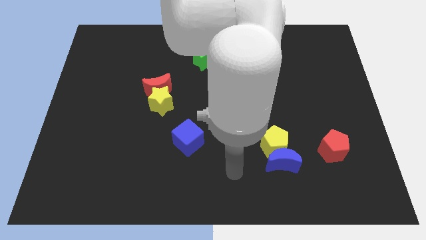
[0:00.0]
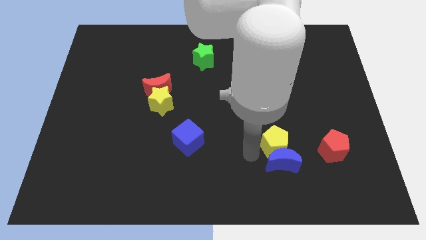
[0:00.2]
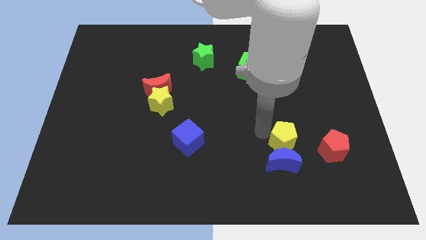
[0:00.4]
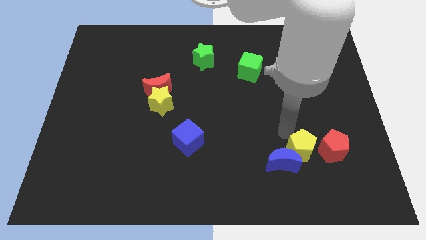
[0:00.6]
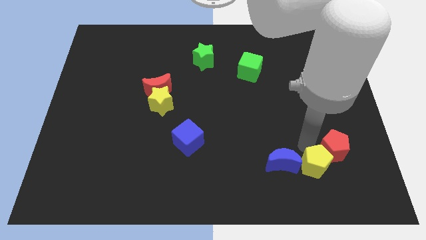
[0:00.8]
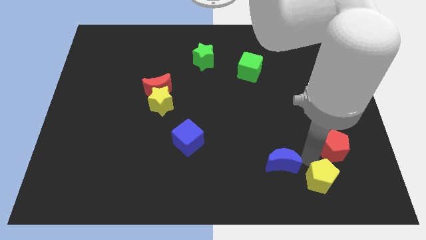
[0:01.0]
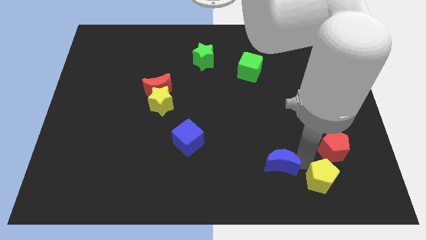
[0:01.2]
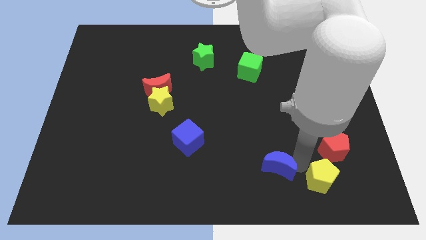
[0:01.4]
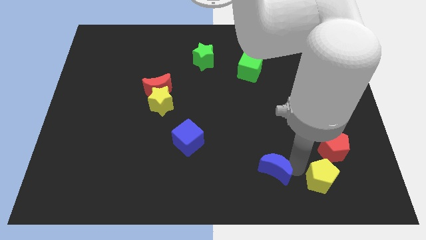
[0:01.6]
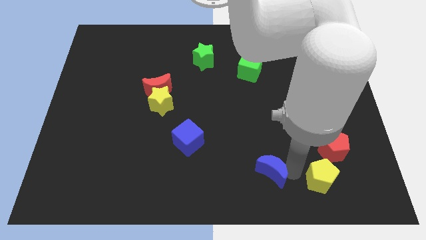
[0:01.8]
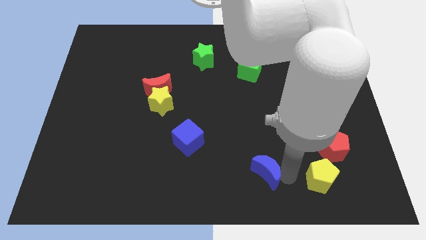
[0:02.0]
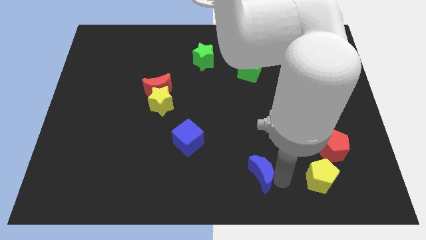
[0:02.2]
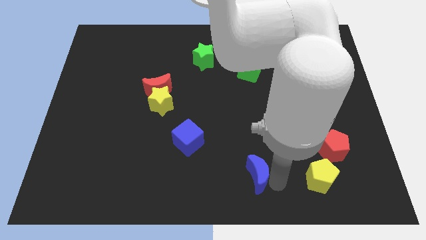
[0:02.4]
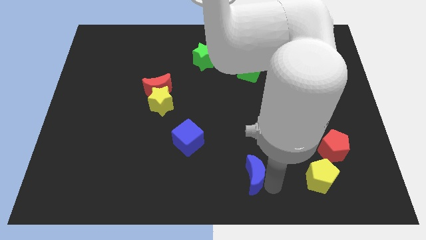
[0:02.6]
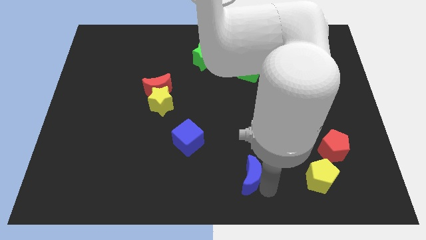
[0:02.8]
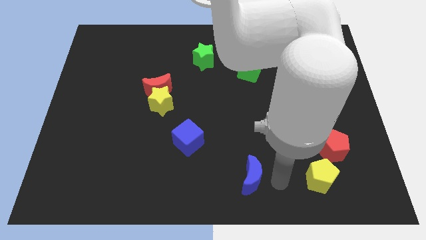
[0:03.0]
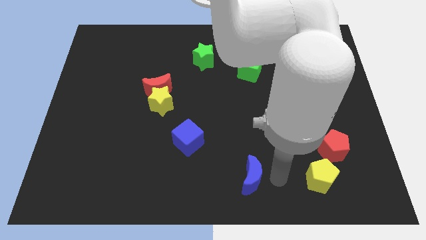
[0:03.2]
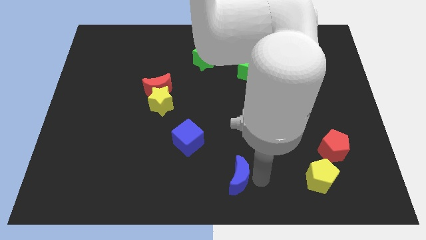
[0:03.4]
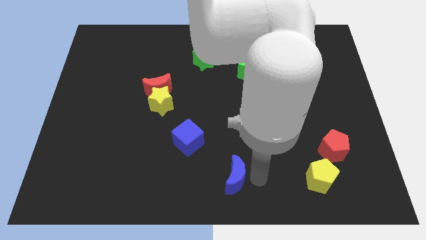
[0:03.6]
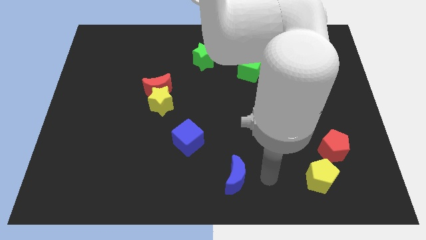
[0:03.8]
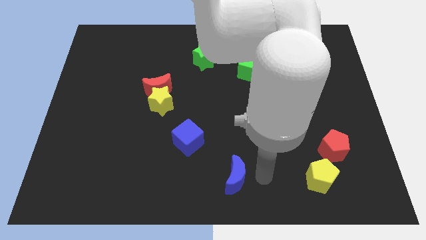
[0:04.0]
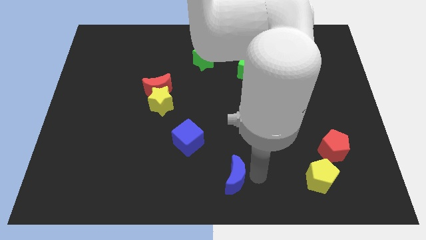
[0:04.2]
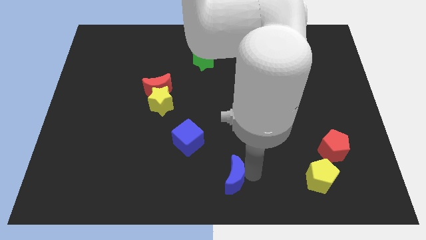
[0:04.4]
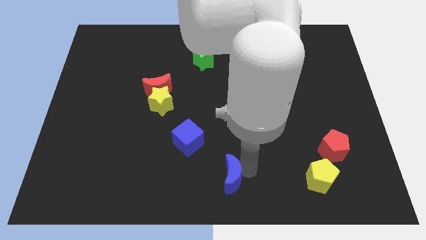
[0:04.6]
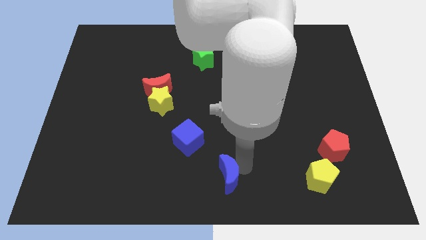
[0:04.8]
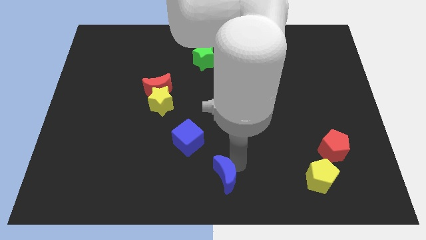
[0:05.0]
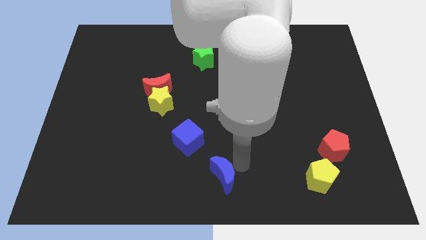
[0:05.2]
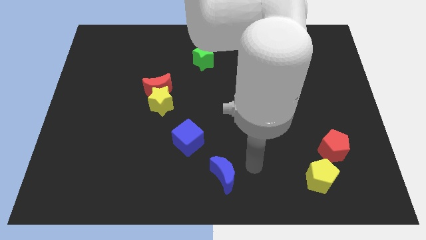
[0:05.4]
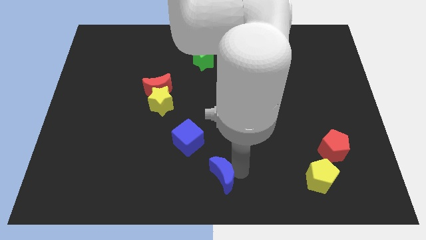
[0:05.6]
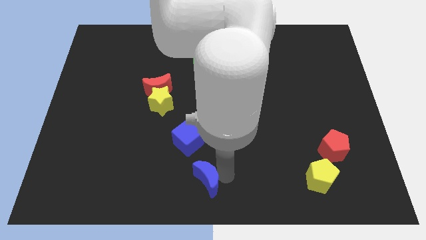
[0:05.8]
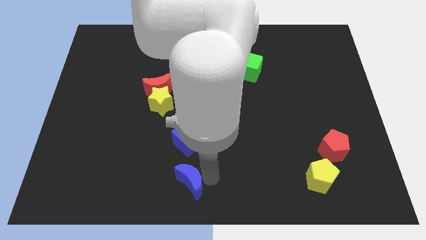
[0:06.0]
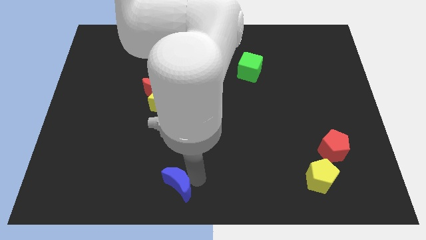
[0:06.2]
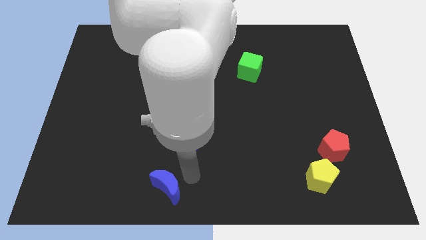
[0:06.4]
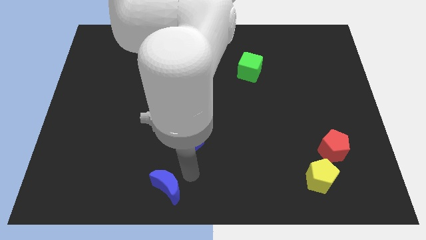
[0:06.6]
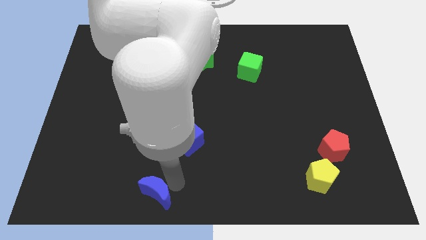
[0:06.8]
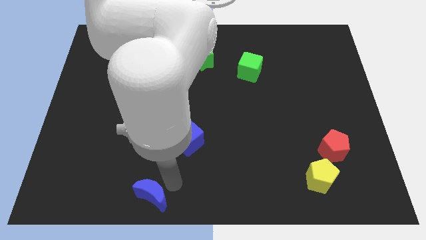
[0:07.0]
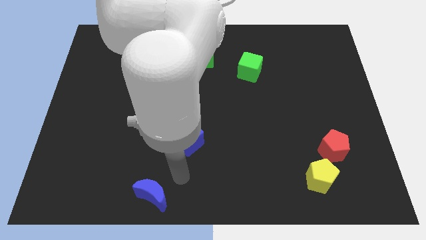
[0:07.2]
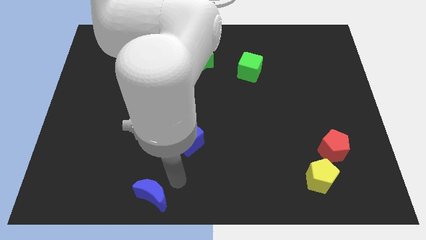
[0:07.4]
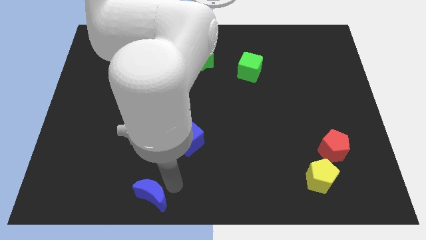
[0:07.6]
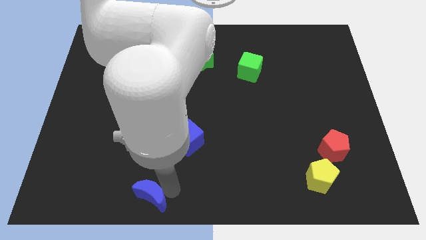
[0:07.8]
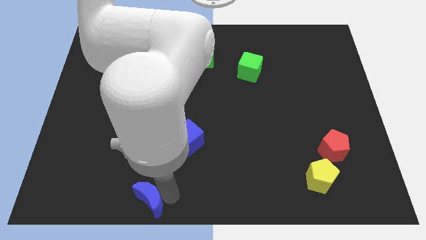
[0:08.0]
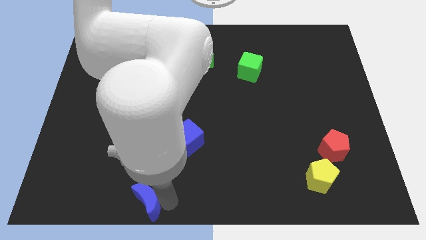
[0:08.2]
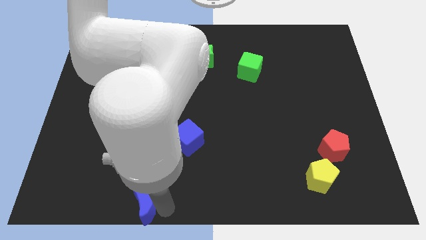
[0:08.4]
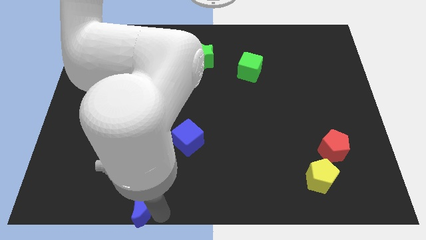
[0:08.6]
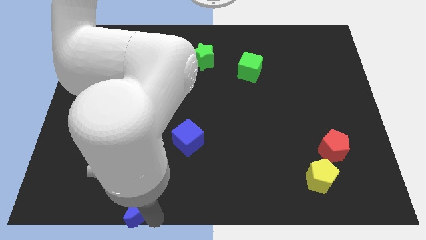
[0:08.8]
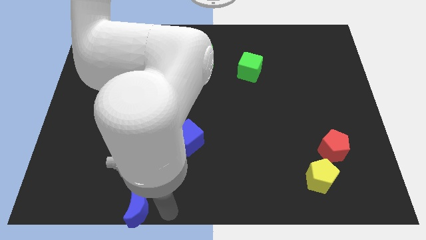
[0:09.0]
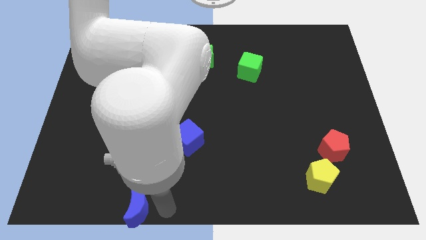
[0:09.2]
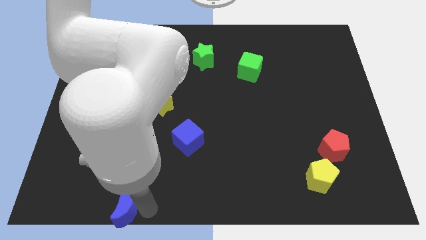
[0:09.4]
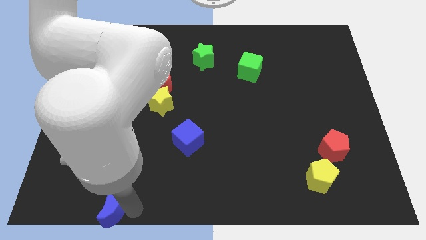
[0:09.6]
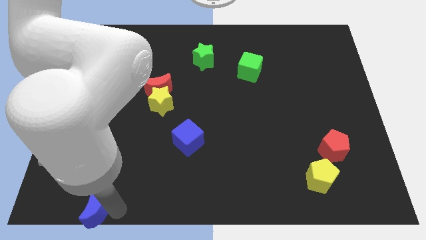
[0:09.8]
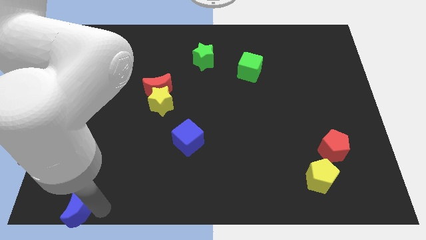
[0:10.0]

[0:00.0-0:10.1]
slide the blue moon to the bottom left corner

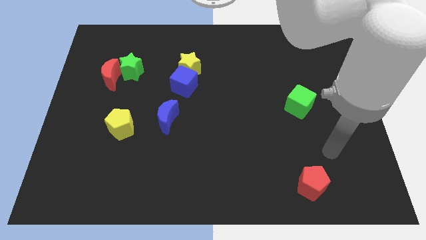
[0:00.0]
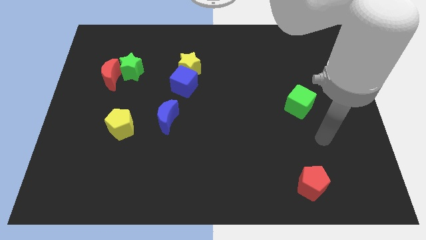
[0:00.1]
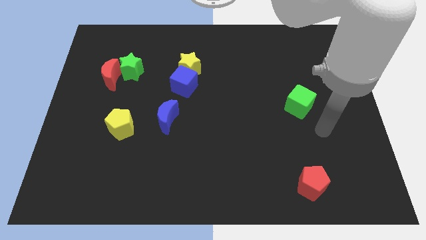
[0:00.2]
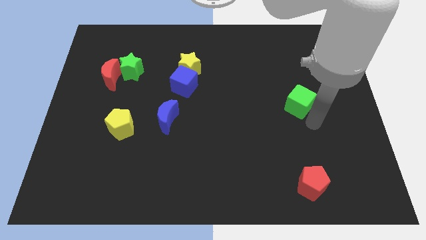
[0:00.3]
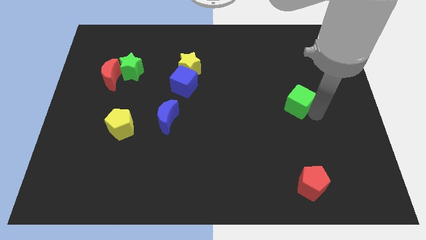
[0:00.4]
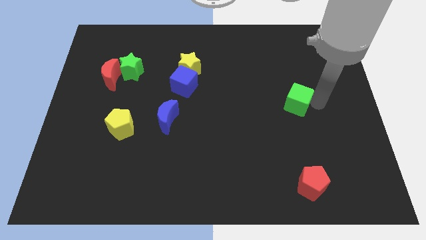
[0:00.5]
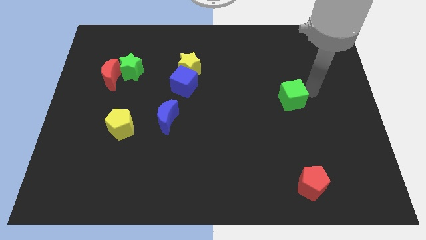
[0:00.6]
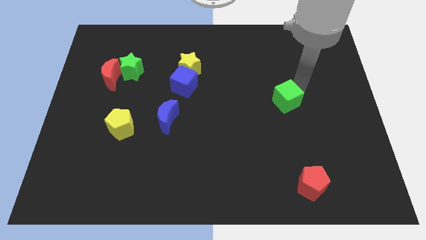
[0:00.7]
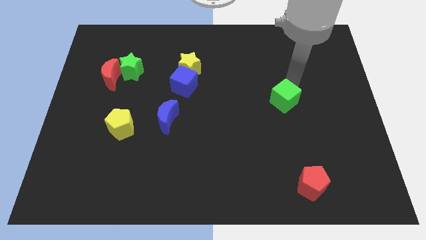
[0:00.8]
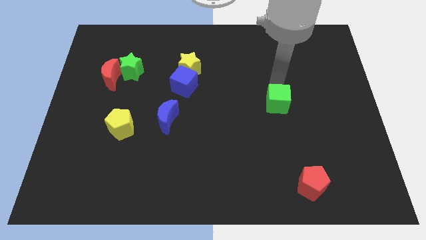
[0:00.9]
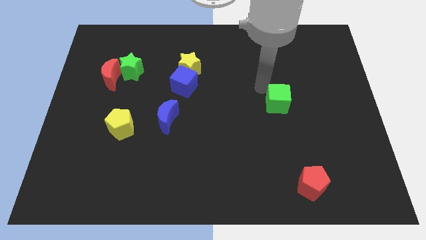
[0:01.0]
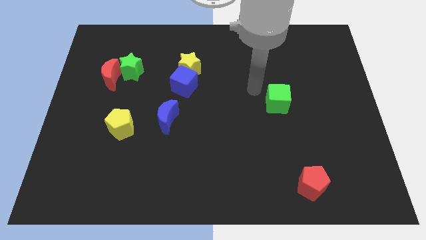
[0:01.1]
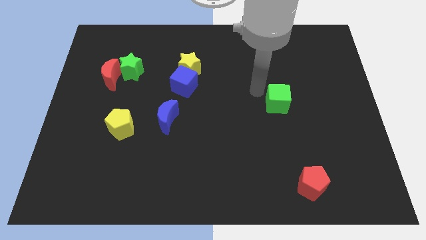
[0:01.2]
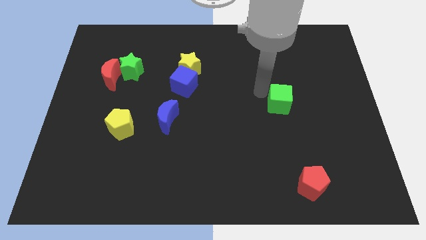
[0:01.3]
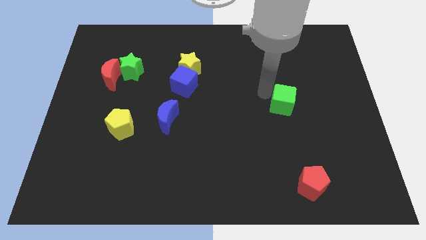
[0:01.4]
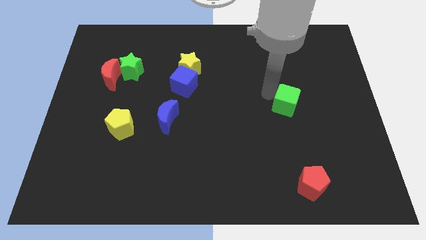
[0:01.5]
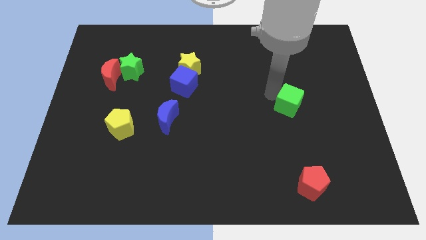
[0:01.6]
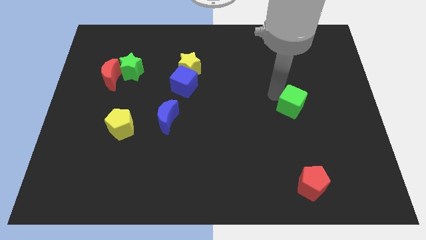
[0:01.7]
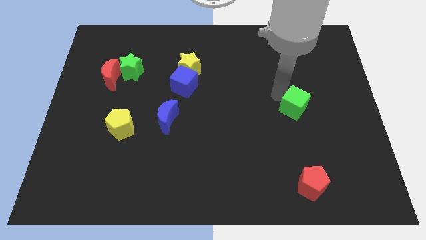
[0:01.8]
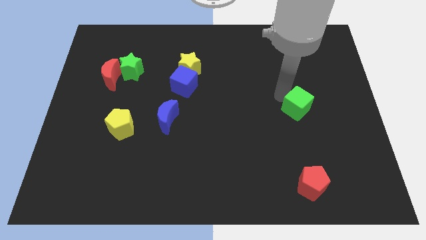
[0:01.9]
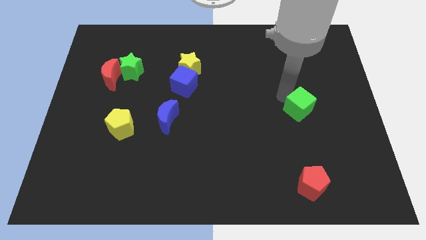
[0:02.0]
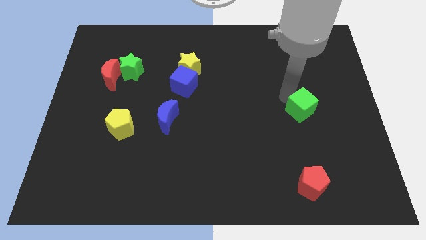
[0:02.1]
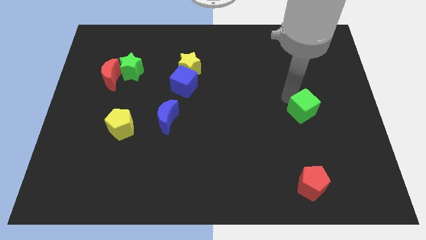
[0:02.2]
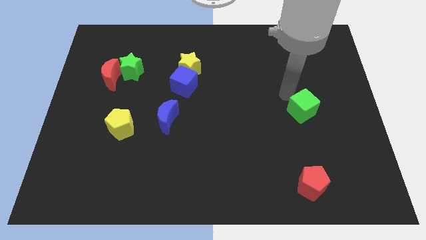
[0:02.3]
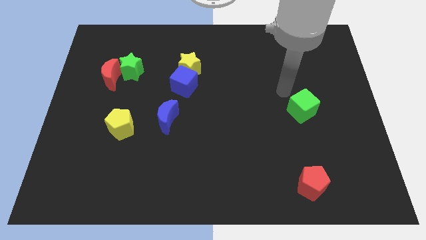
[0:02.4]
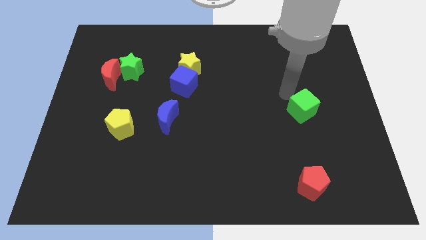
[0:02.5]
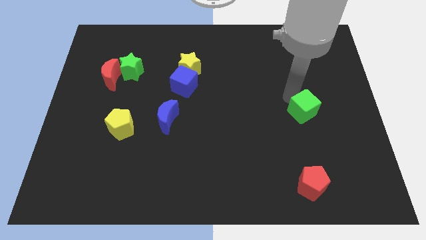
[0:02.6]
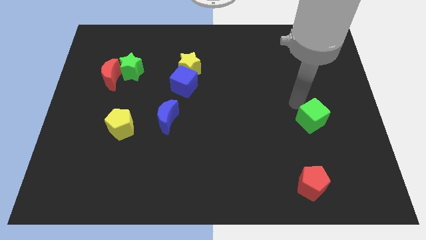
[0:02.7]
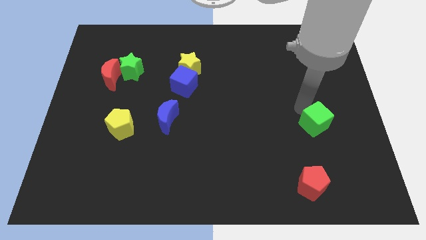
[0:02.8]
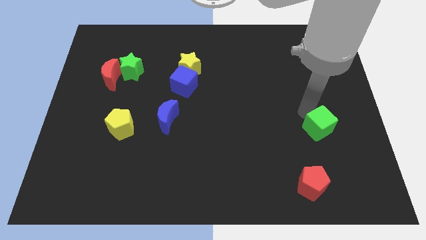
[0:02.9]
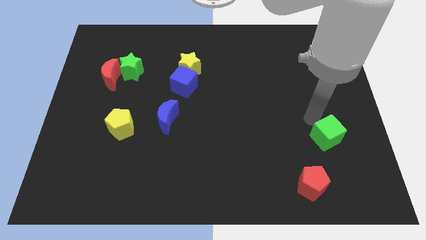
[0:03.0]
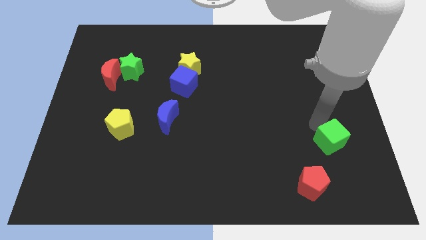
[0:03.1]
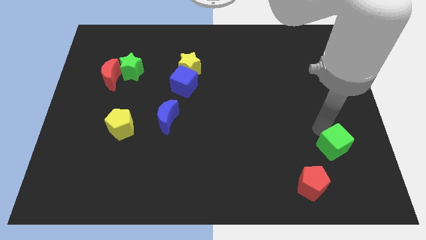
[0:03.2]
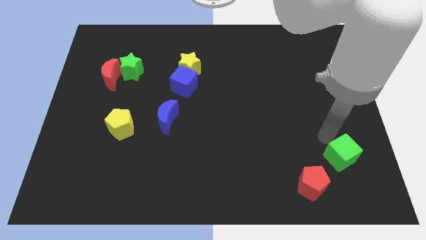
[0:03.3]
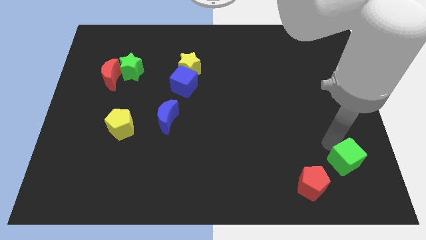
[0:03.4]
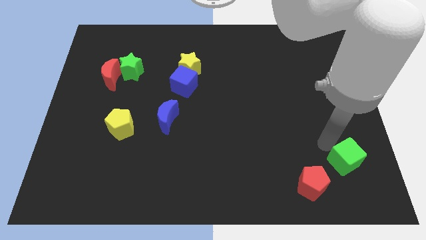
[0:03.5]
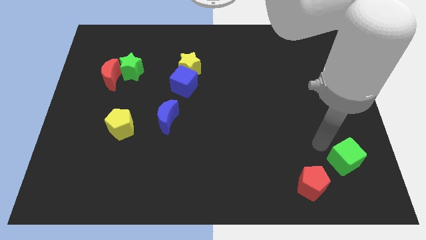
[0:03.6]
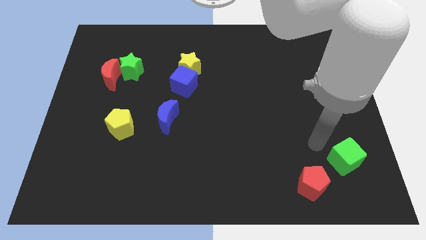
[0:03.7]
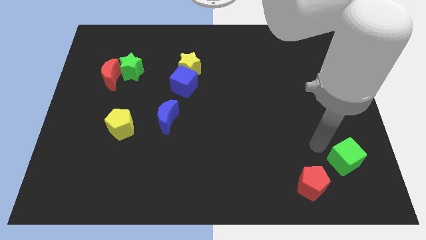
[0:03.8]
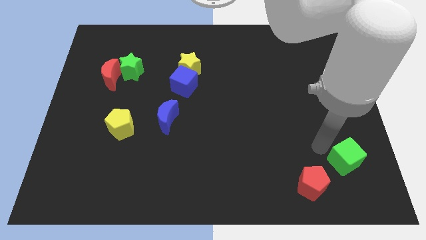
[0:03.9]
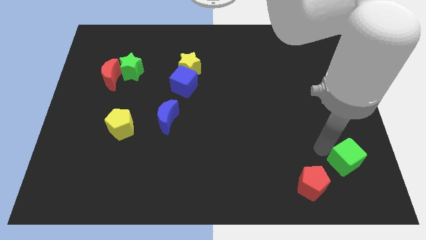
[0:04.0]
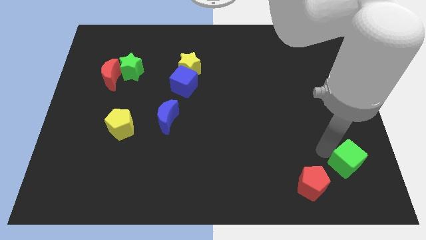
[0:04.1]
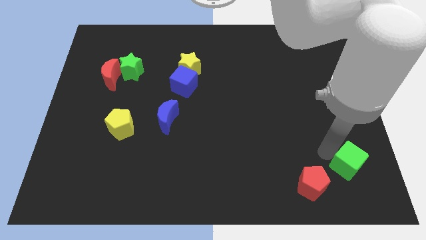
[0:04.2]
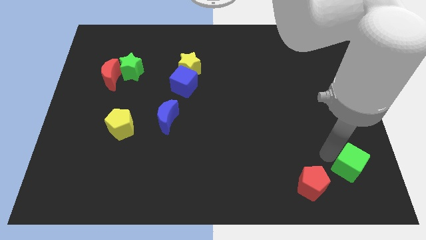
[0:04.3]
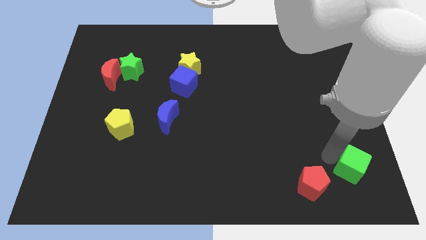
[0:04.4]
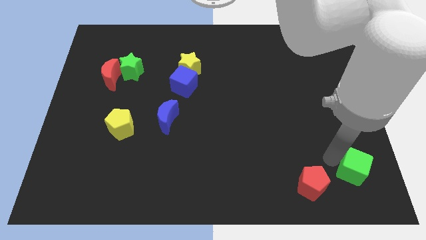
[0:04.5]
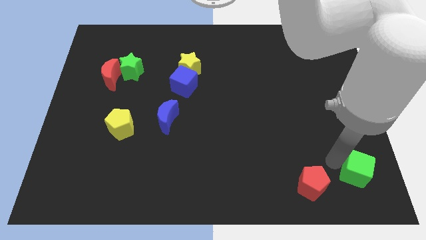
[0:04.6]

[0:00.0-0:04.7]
slide the green cube to the bottom right corner
